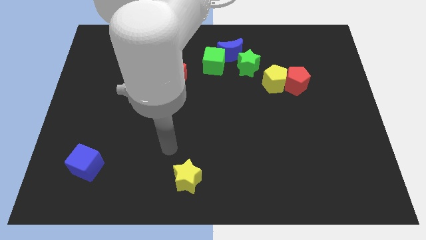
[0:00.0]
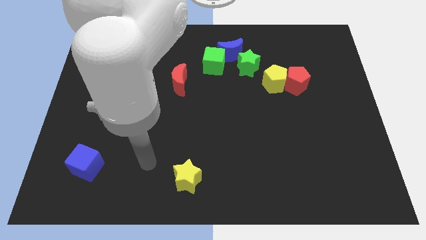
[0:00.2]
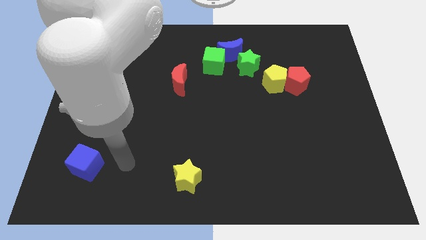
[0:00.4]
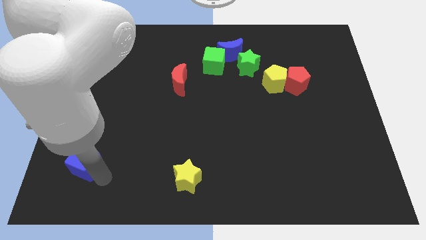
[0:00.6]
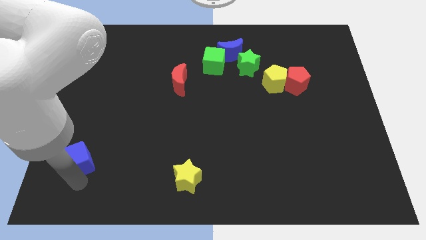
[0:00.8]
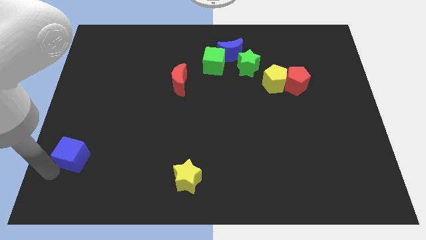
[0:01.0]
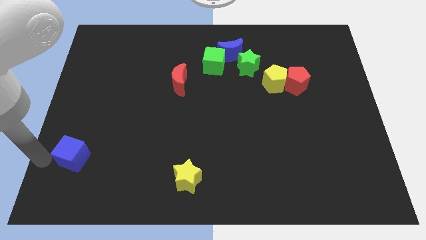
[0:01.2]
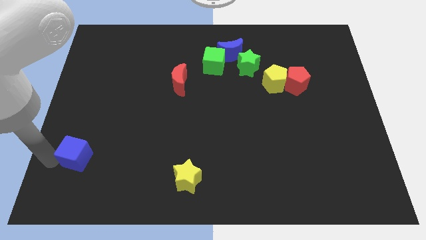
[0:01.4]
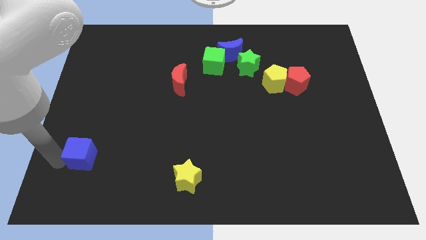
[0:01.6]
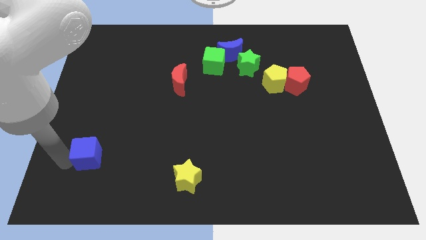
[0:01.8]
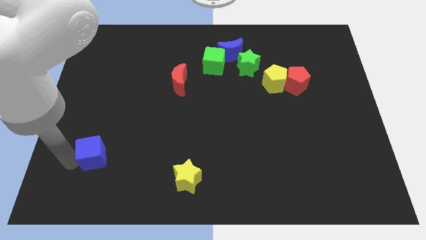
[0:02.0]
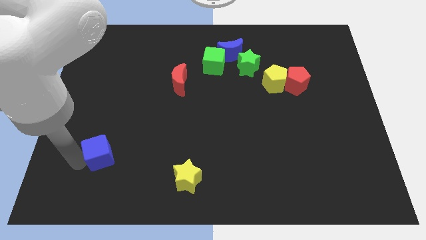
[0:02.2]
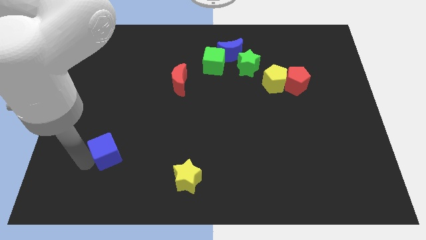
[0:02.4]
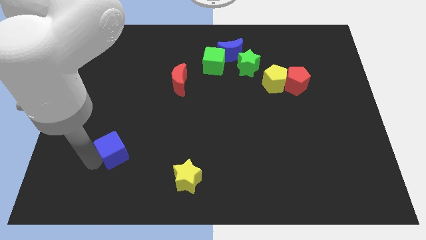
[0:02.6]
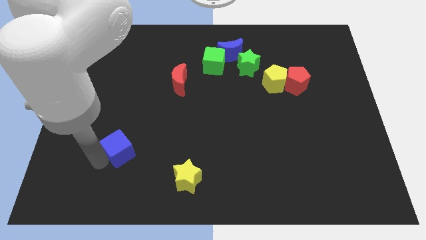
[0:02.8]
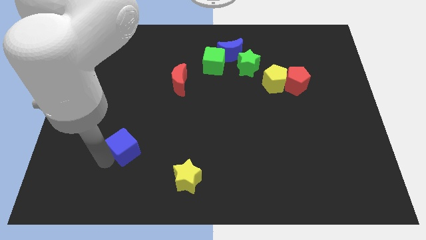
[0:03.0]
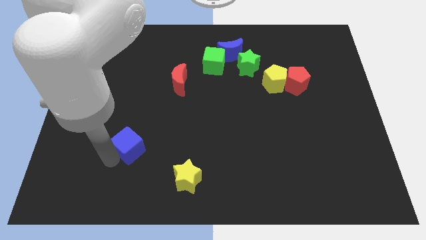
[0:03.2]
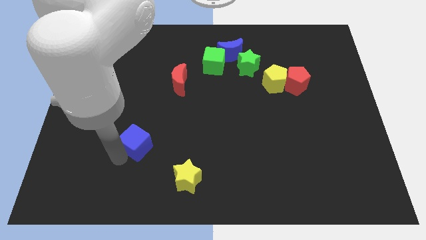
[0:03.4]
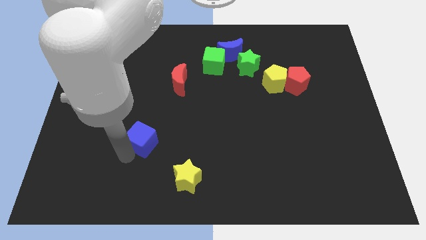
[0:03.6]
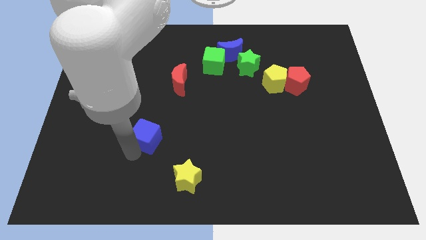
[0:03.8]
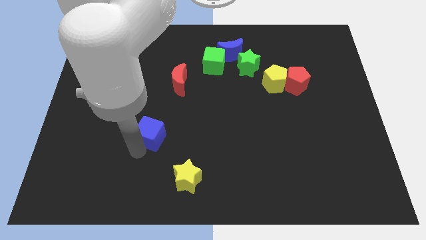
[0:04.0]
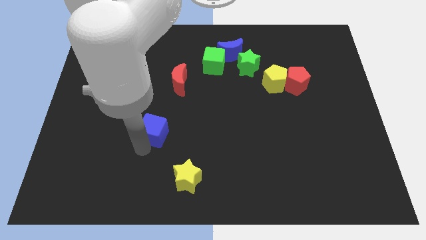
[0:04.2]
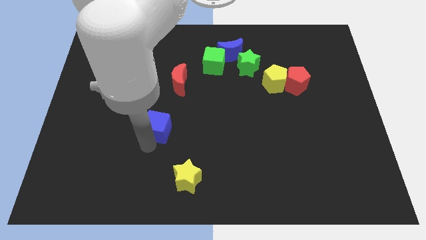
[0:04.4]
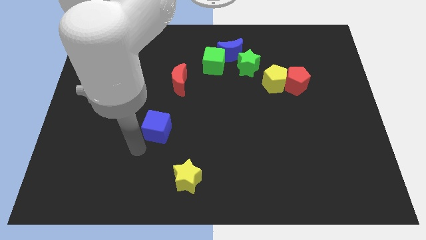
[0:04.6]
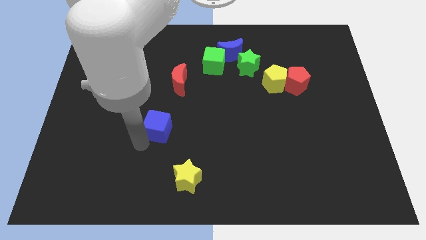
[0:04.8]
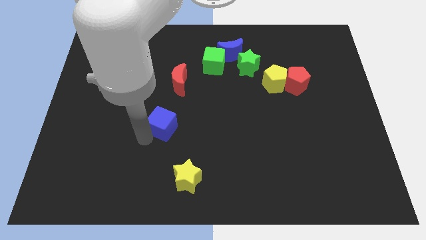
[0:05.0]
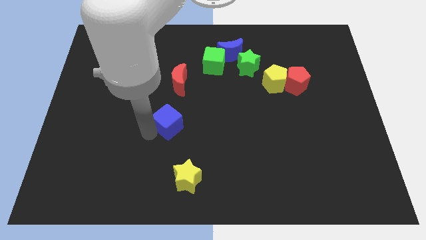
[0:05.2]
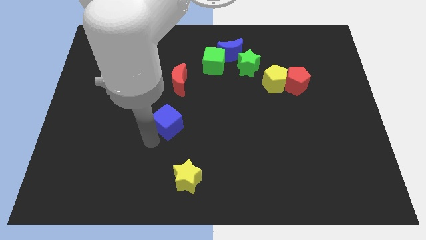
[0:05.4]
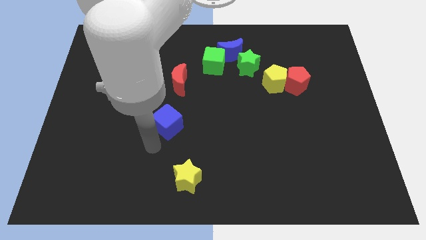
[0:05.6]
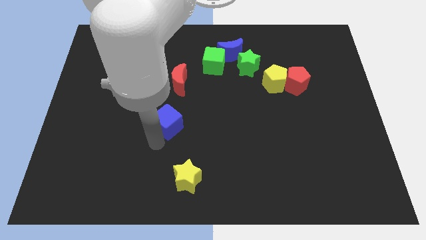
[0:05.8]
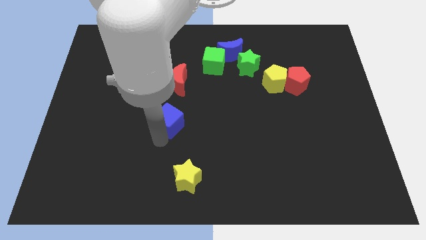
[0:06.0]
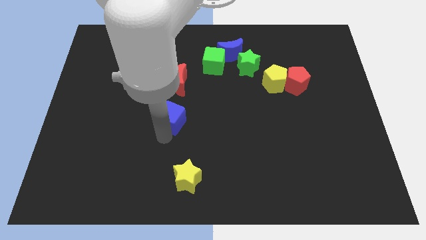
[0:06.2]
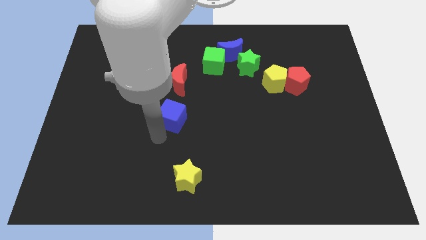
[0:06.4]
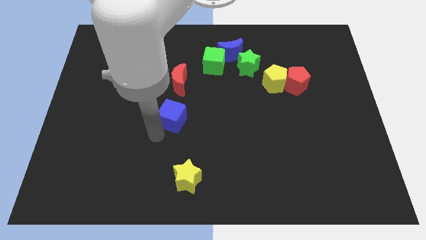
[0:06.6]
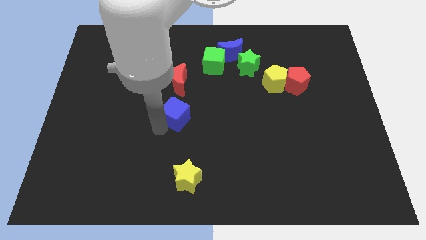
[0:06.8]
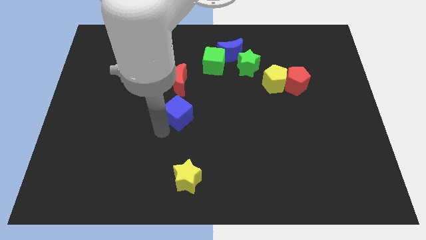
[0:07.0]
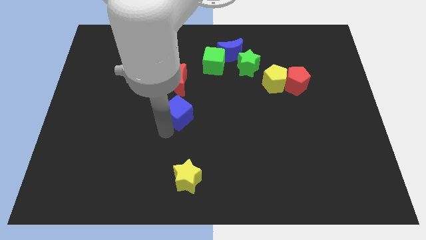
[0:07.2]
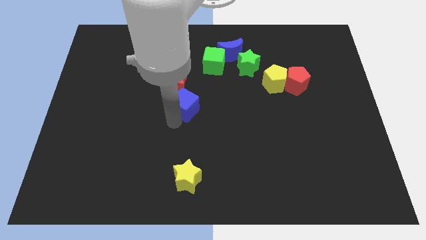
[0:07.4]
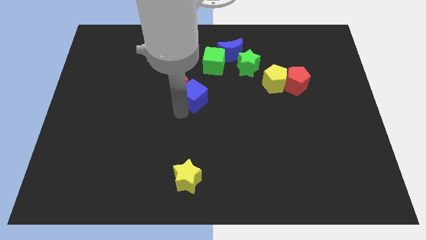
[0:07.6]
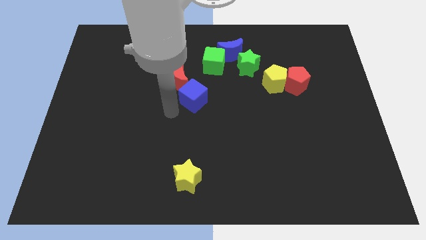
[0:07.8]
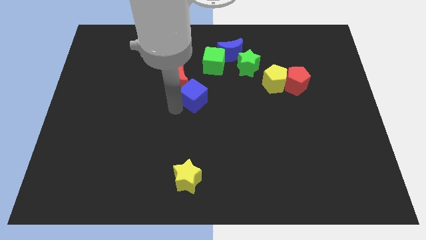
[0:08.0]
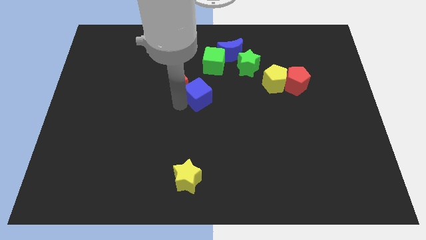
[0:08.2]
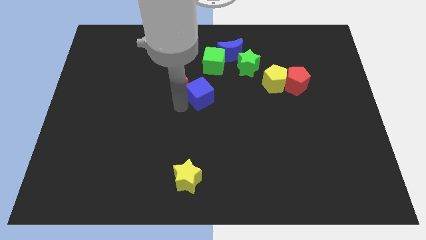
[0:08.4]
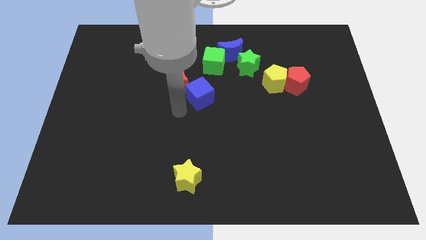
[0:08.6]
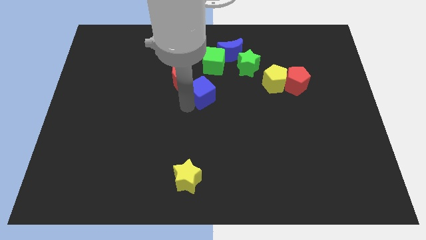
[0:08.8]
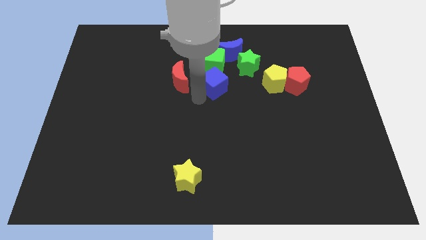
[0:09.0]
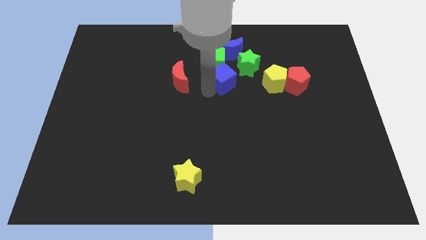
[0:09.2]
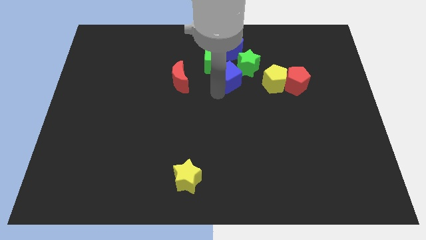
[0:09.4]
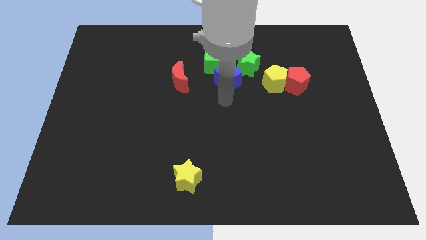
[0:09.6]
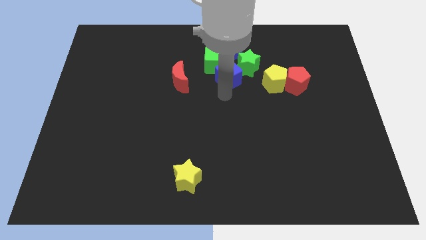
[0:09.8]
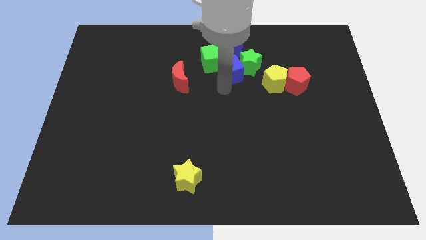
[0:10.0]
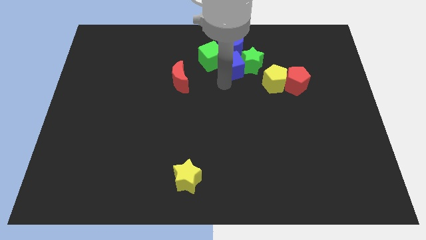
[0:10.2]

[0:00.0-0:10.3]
put the blue cube close to the blue moon

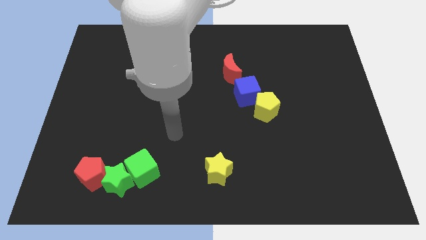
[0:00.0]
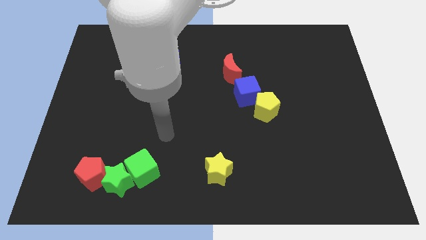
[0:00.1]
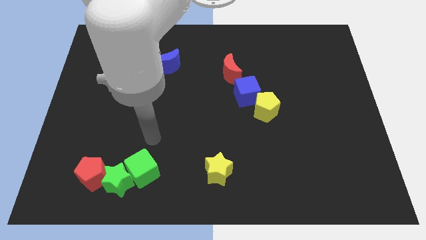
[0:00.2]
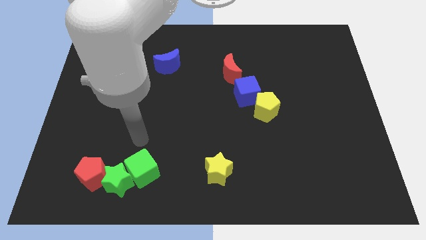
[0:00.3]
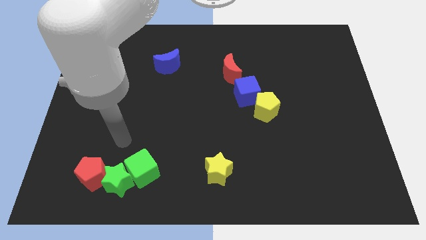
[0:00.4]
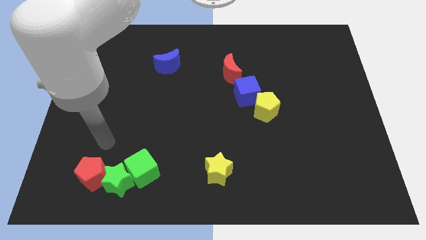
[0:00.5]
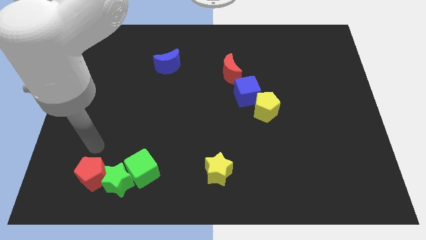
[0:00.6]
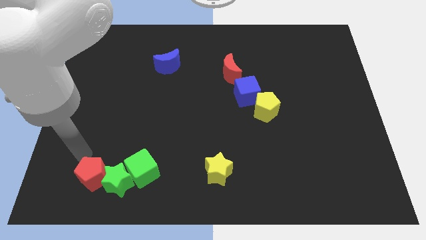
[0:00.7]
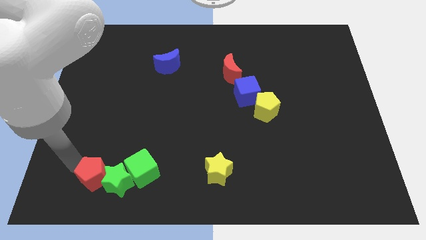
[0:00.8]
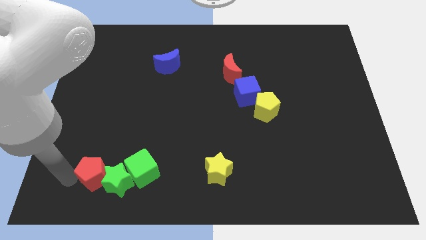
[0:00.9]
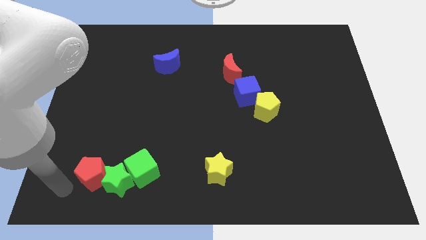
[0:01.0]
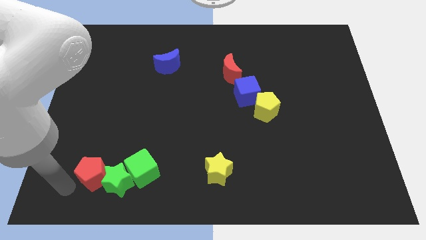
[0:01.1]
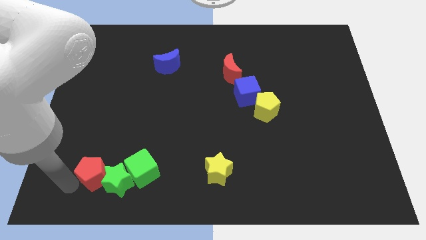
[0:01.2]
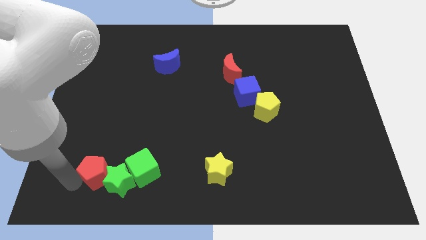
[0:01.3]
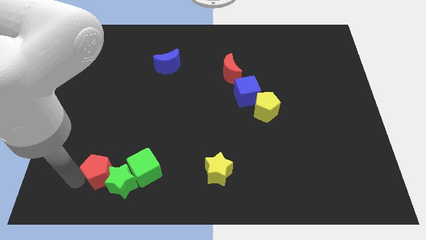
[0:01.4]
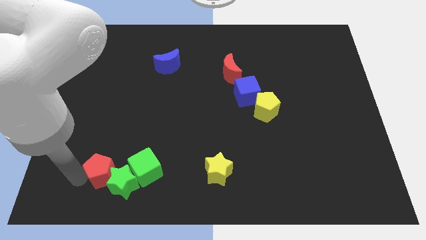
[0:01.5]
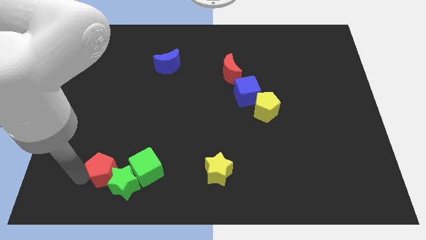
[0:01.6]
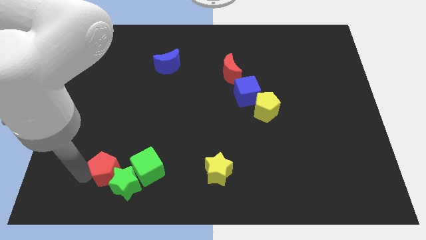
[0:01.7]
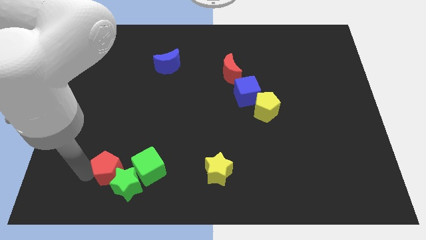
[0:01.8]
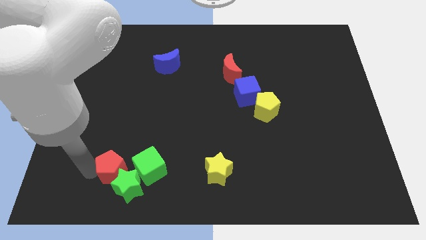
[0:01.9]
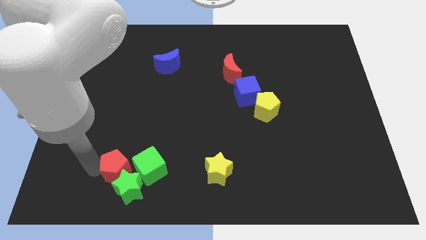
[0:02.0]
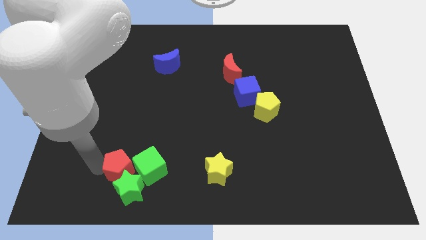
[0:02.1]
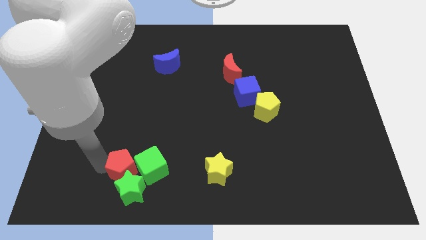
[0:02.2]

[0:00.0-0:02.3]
push the red pentagon towards the green cube
